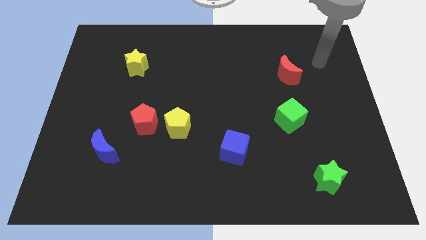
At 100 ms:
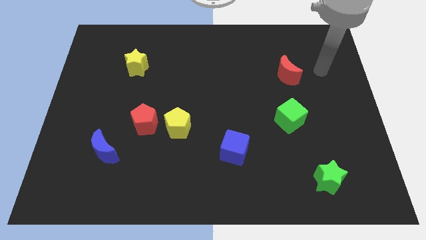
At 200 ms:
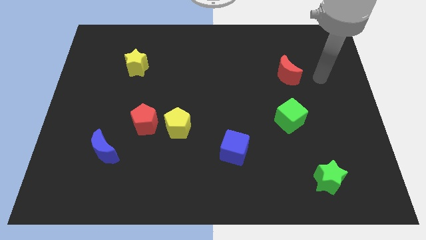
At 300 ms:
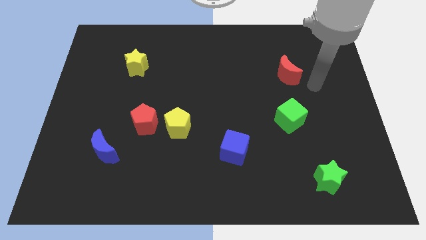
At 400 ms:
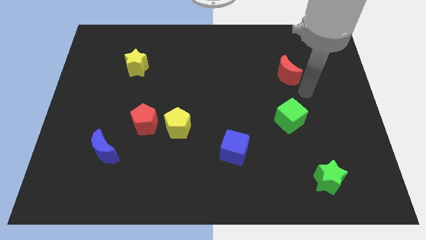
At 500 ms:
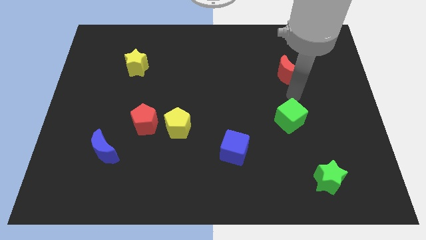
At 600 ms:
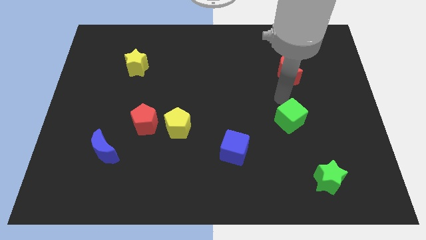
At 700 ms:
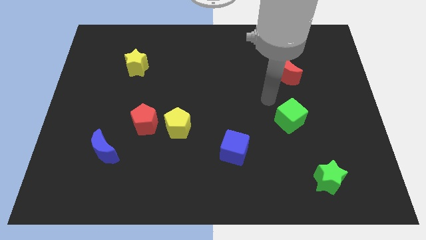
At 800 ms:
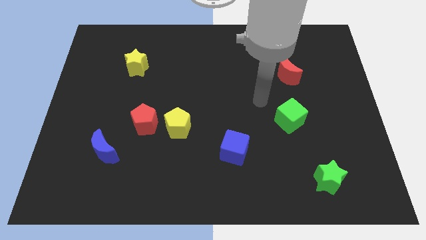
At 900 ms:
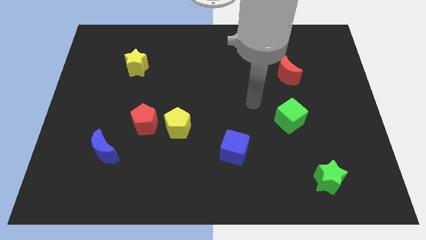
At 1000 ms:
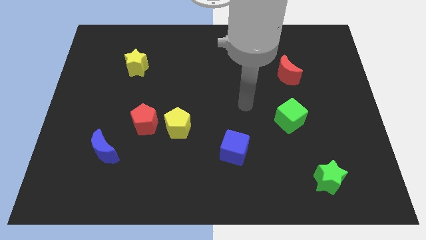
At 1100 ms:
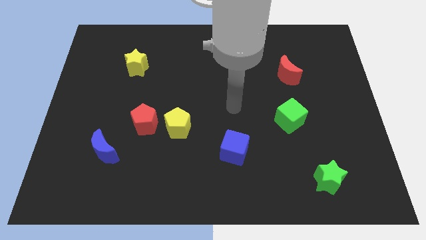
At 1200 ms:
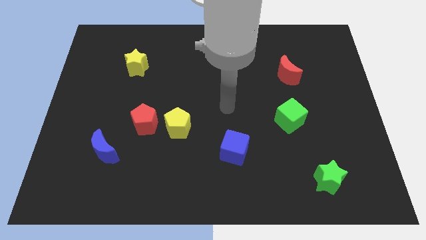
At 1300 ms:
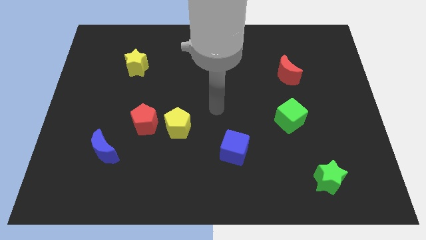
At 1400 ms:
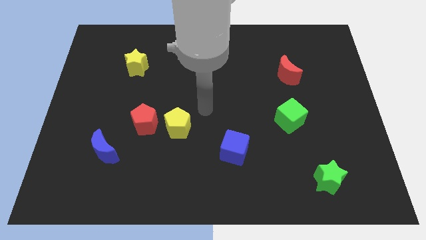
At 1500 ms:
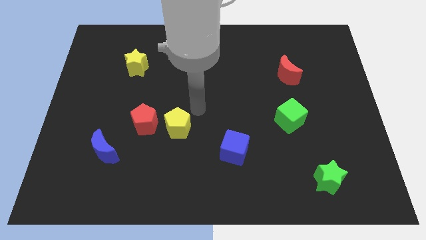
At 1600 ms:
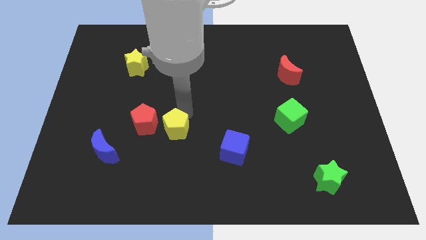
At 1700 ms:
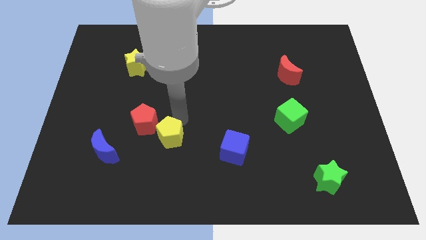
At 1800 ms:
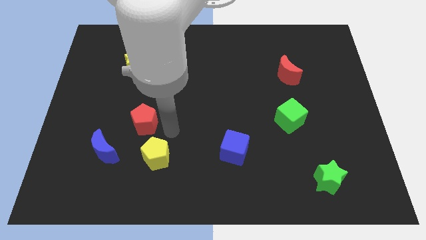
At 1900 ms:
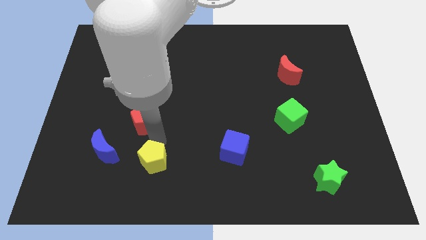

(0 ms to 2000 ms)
pull the red pentagon apart from the yellow pentagon

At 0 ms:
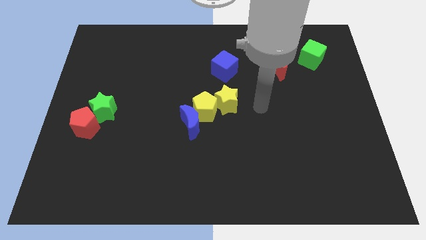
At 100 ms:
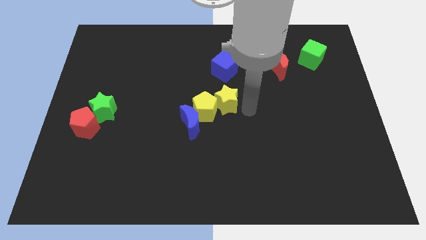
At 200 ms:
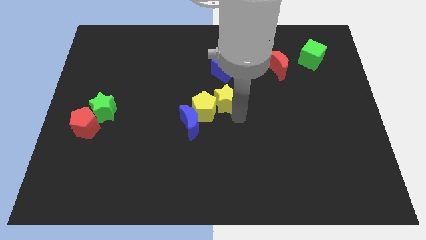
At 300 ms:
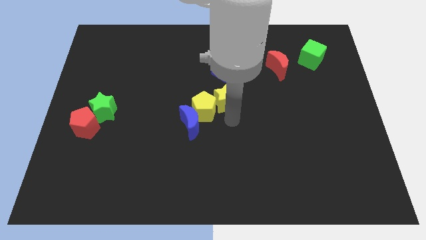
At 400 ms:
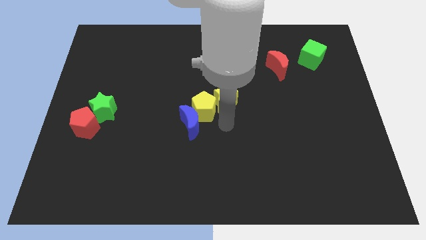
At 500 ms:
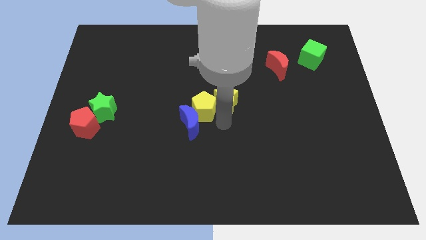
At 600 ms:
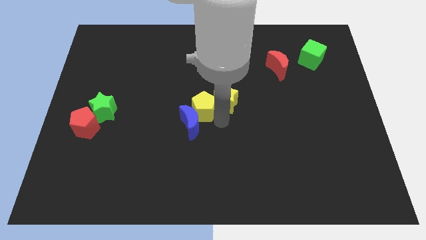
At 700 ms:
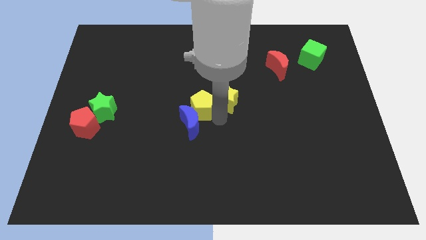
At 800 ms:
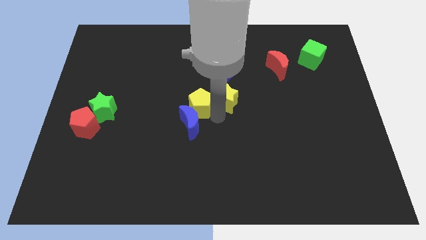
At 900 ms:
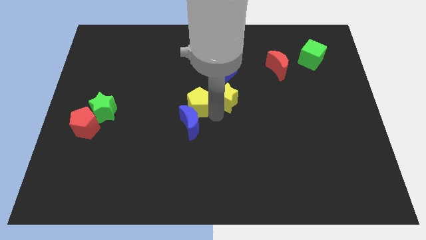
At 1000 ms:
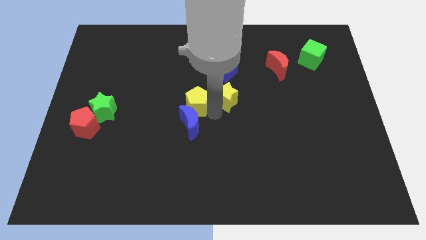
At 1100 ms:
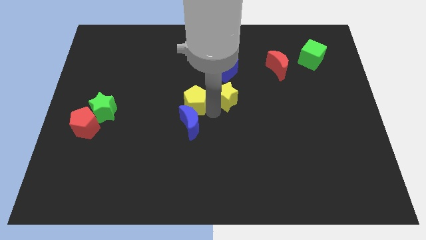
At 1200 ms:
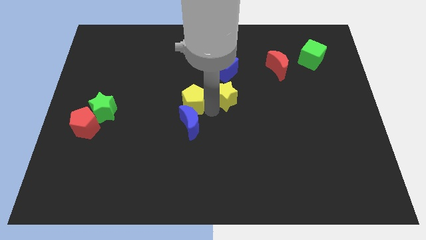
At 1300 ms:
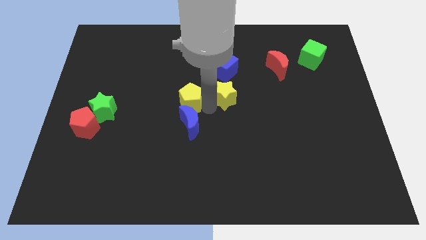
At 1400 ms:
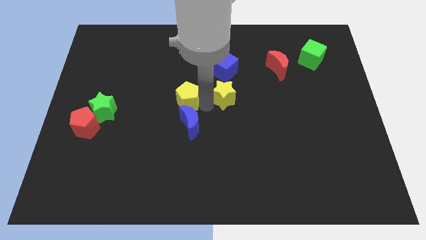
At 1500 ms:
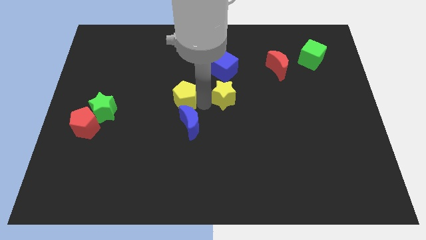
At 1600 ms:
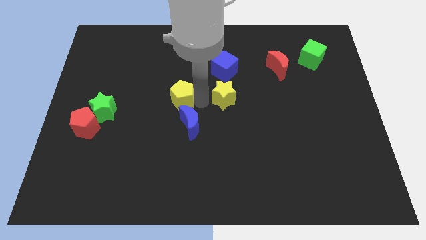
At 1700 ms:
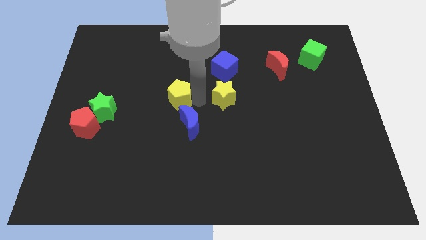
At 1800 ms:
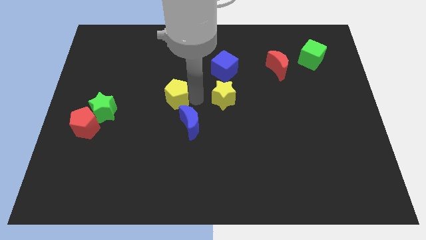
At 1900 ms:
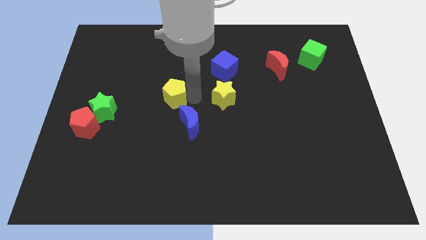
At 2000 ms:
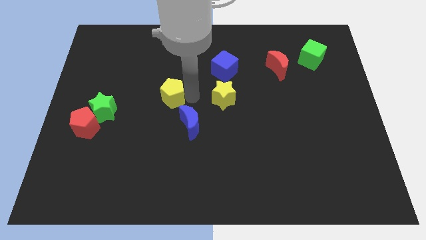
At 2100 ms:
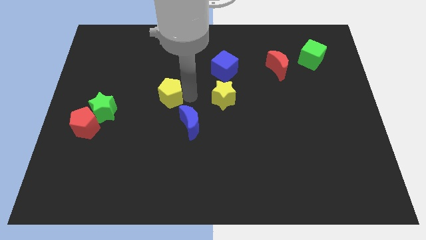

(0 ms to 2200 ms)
separate the yellow pentagon from the blue moon and yellow star

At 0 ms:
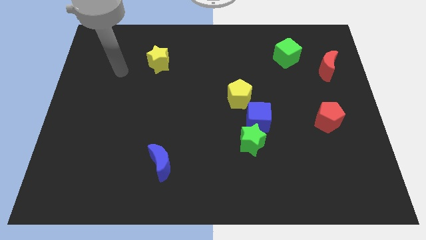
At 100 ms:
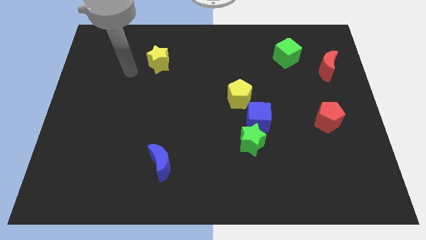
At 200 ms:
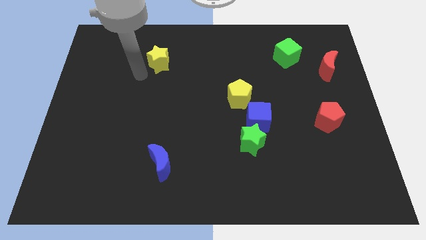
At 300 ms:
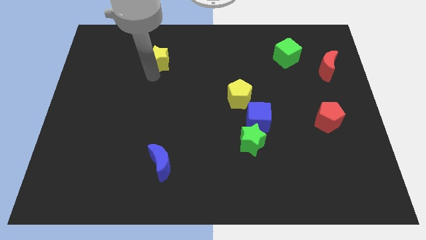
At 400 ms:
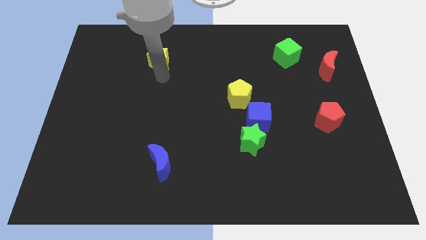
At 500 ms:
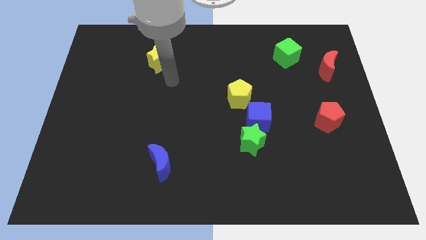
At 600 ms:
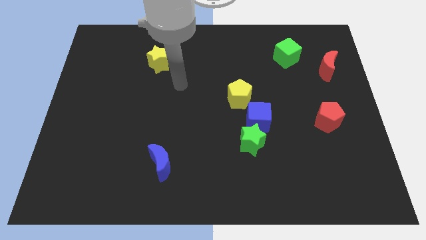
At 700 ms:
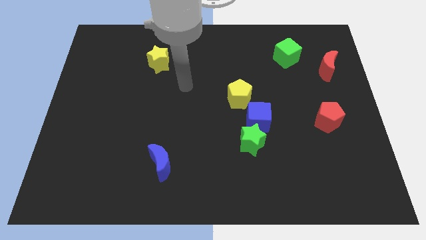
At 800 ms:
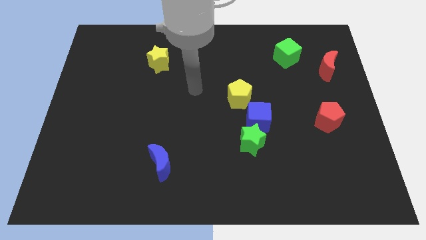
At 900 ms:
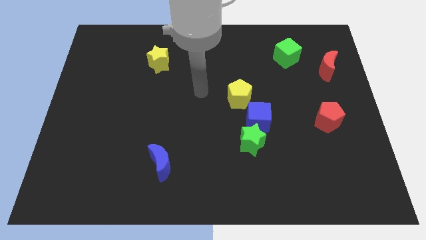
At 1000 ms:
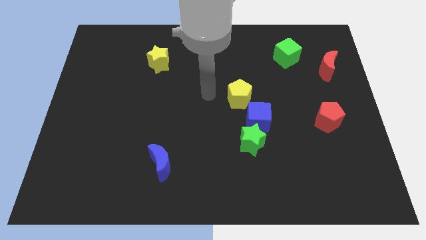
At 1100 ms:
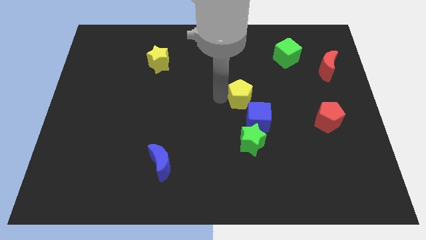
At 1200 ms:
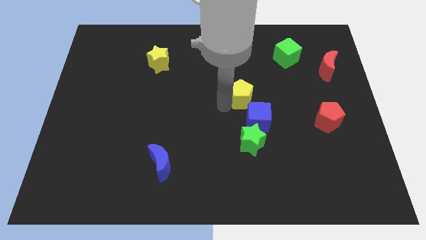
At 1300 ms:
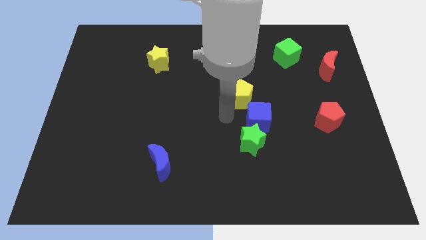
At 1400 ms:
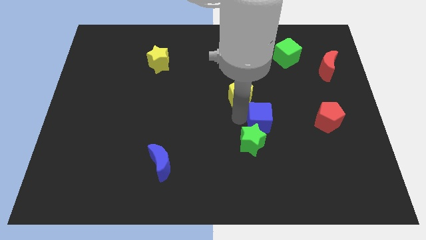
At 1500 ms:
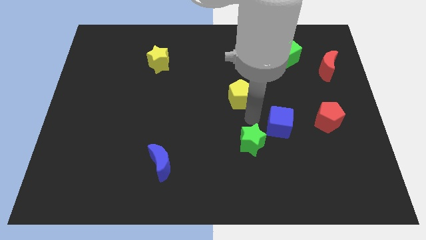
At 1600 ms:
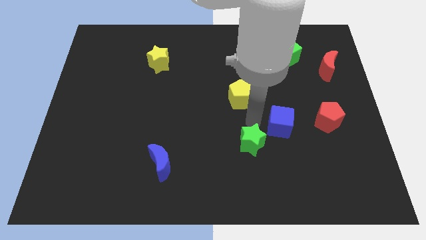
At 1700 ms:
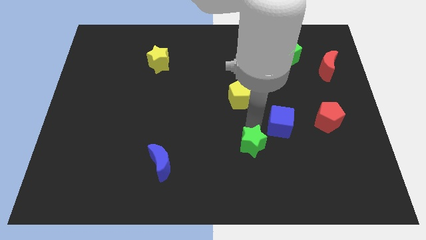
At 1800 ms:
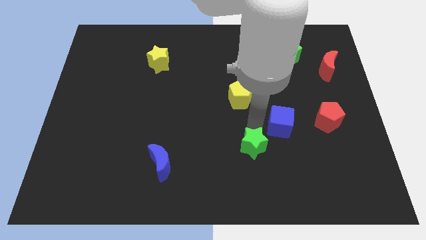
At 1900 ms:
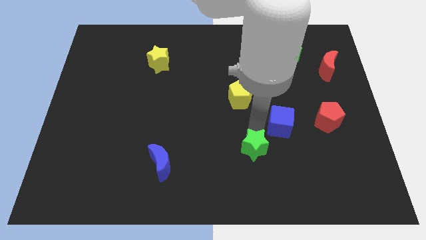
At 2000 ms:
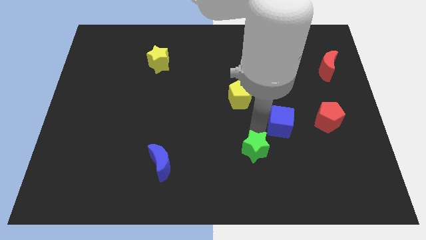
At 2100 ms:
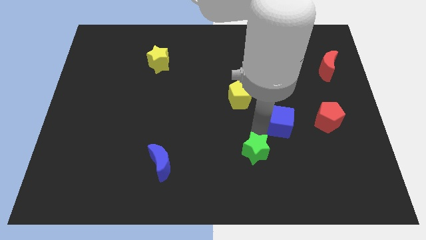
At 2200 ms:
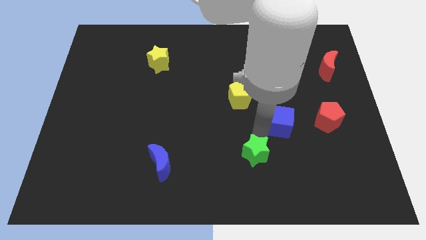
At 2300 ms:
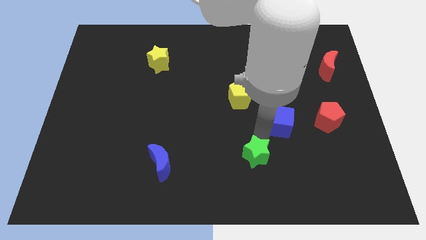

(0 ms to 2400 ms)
separate the green star from the blue cube

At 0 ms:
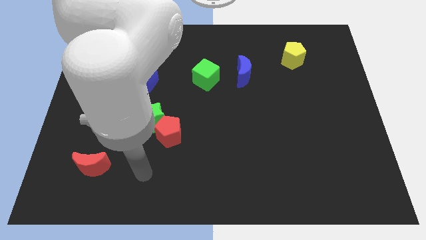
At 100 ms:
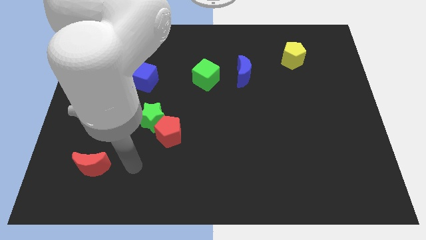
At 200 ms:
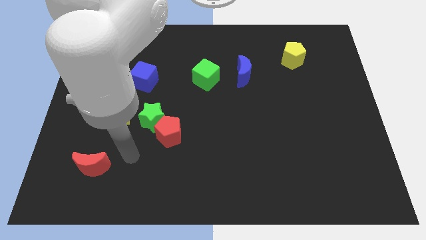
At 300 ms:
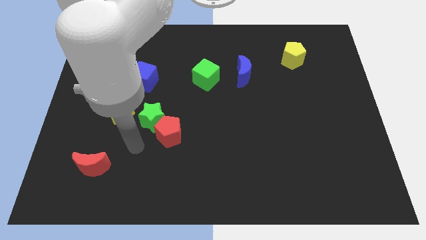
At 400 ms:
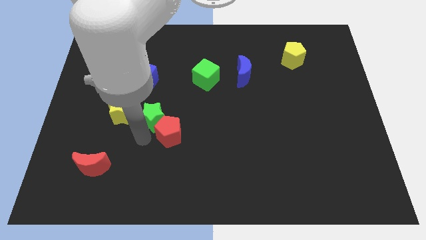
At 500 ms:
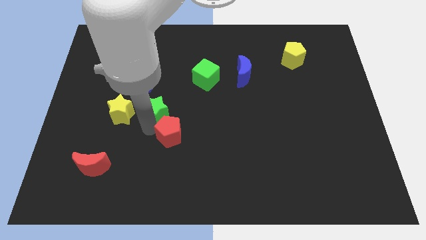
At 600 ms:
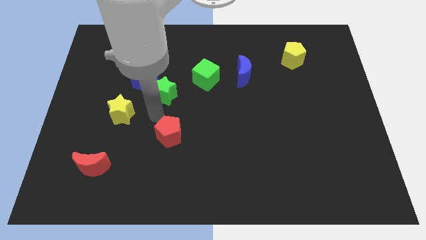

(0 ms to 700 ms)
pull the red pentagon apart from the green star

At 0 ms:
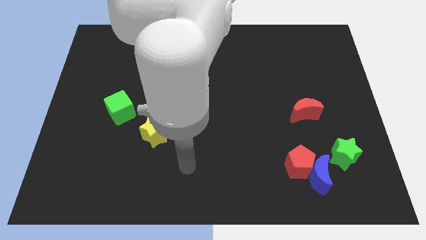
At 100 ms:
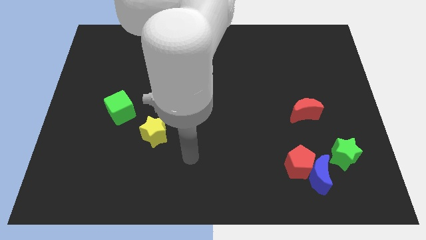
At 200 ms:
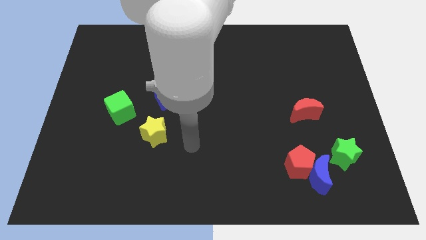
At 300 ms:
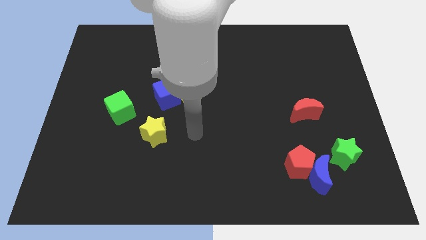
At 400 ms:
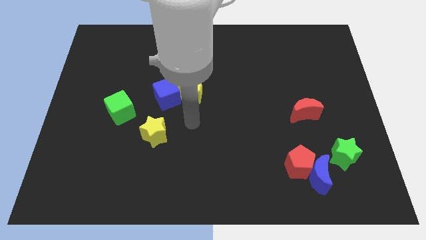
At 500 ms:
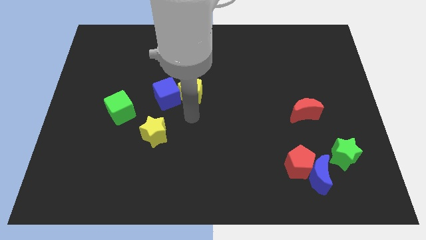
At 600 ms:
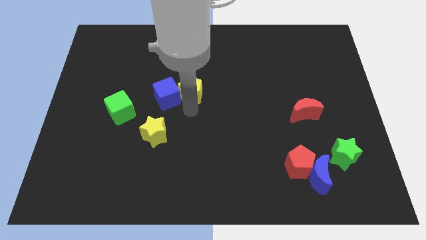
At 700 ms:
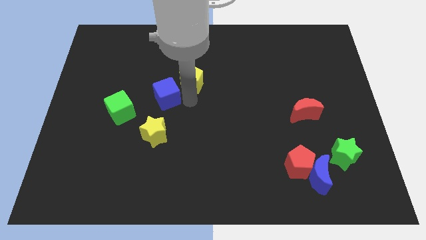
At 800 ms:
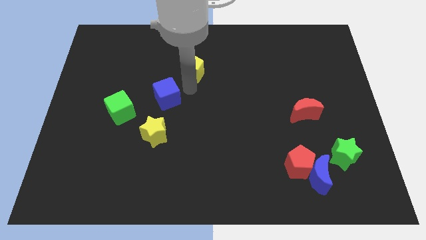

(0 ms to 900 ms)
separate the blue cube from the yellow pentagon

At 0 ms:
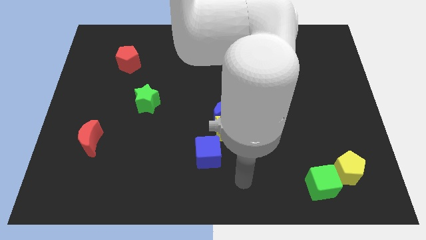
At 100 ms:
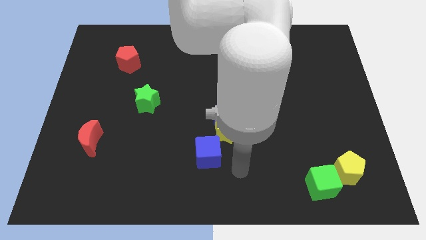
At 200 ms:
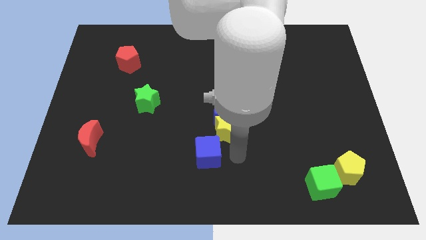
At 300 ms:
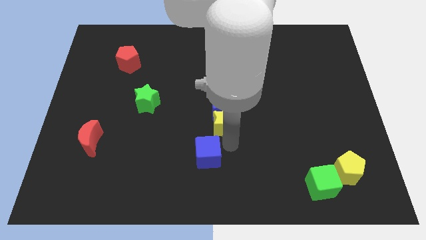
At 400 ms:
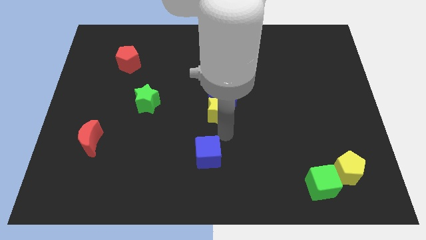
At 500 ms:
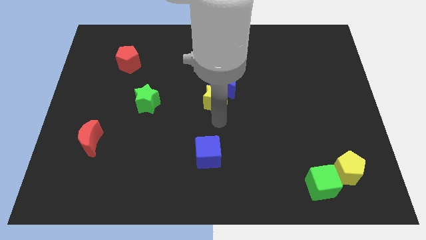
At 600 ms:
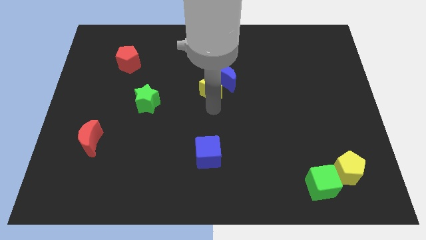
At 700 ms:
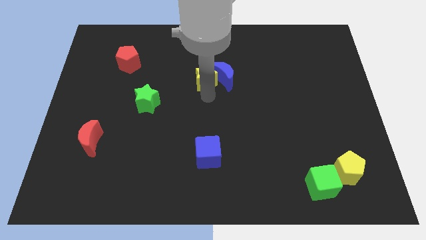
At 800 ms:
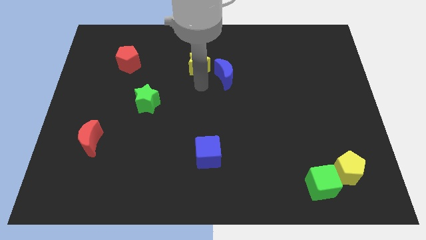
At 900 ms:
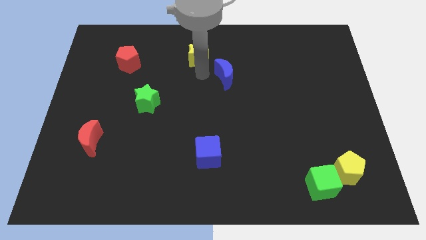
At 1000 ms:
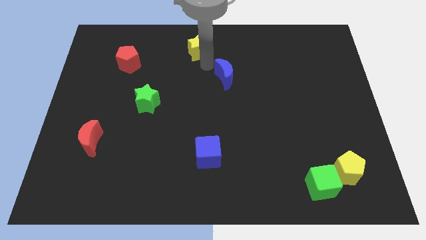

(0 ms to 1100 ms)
move the blue moon away from the yellow star
